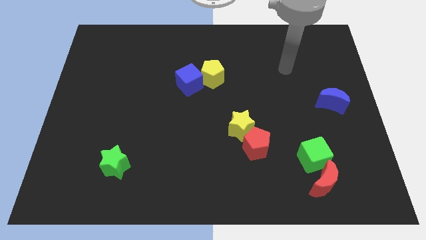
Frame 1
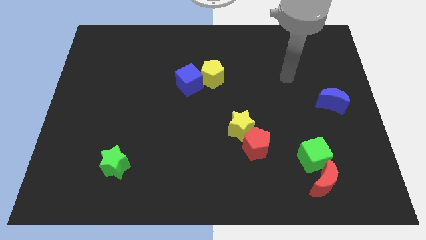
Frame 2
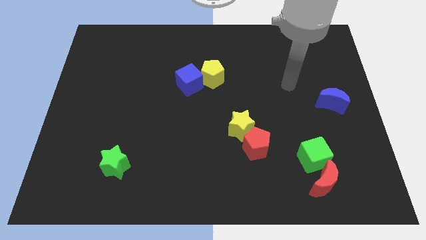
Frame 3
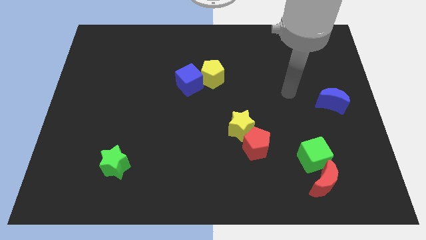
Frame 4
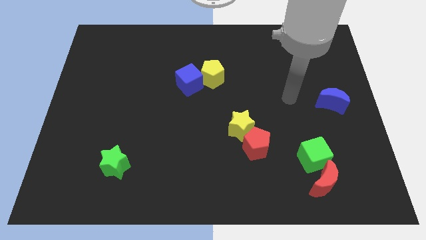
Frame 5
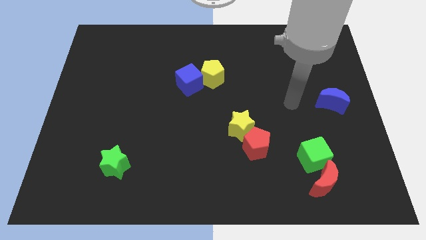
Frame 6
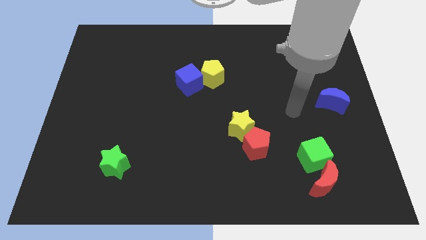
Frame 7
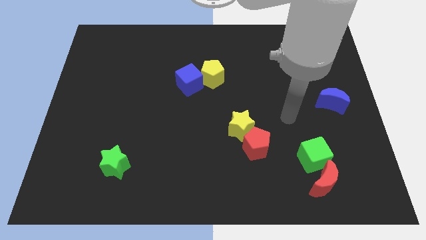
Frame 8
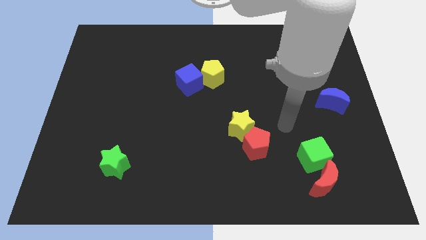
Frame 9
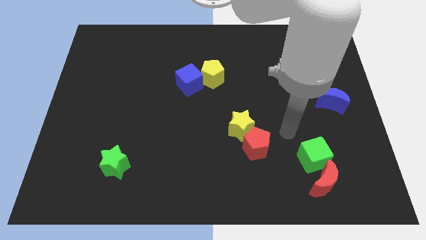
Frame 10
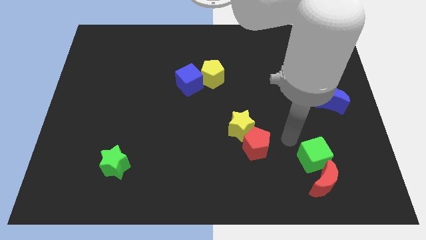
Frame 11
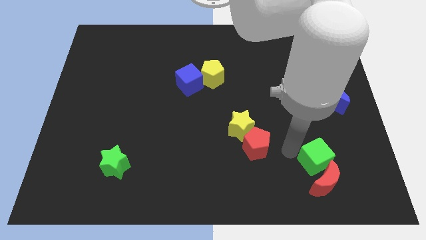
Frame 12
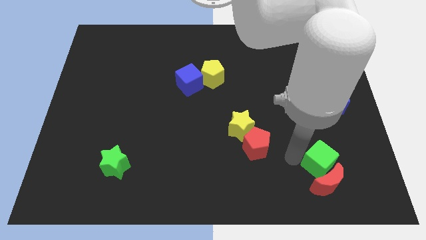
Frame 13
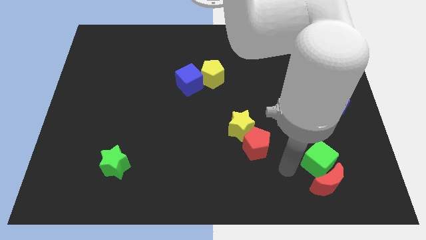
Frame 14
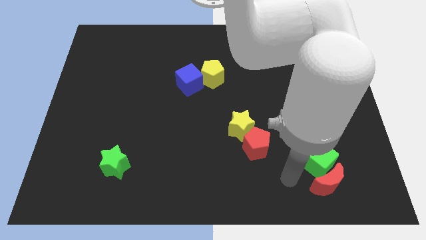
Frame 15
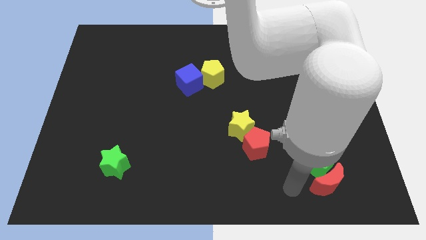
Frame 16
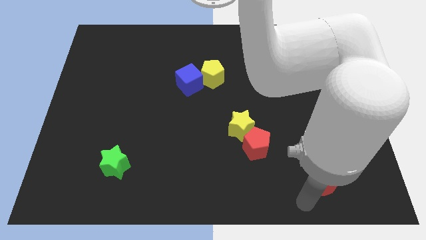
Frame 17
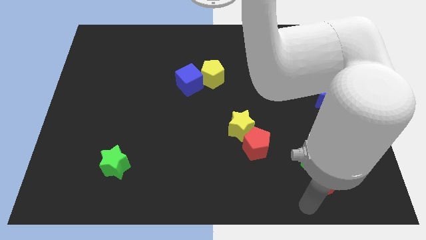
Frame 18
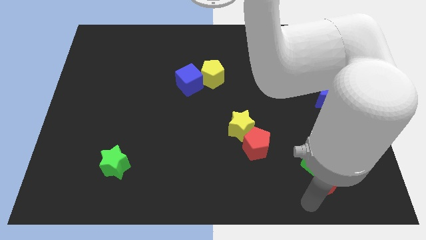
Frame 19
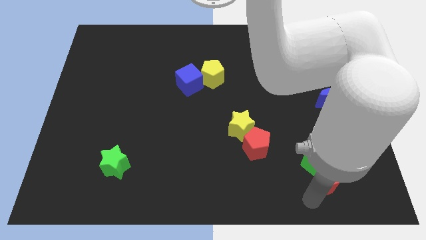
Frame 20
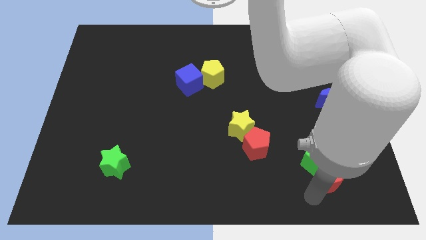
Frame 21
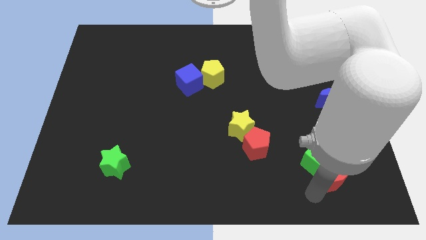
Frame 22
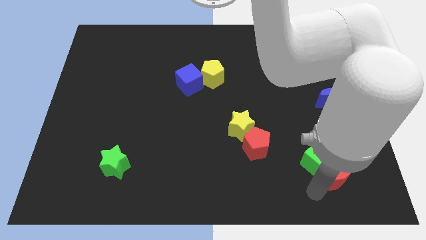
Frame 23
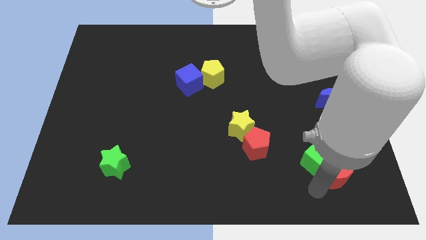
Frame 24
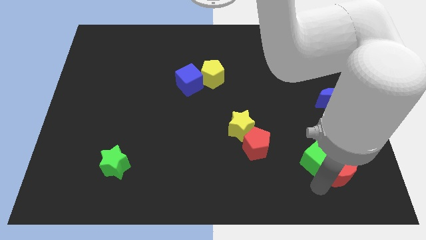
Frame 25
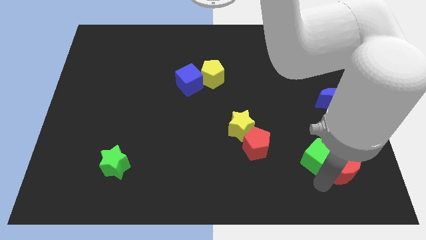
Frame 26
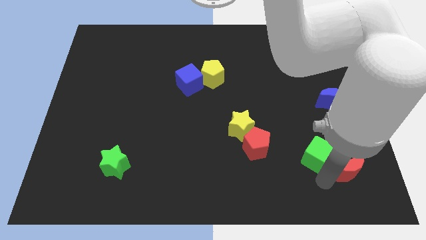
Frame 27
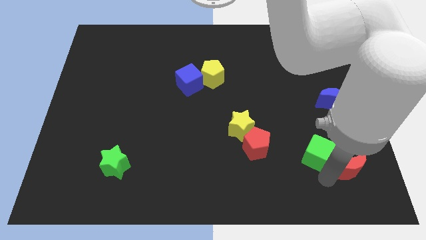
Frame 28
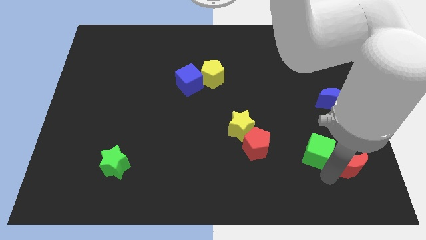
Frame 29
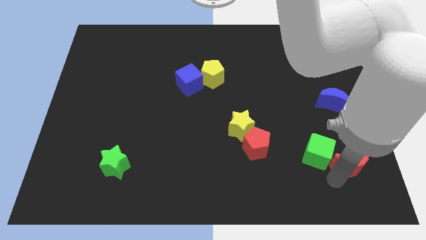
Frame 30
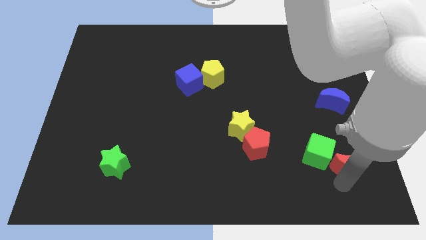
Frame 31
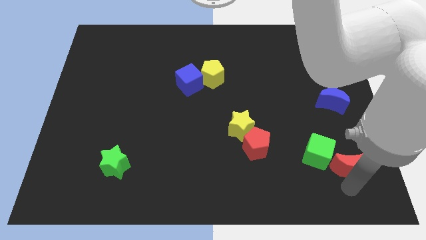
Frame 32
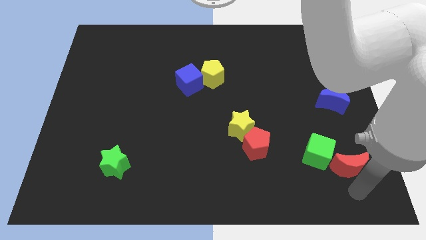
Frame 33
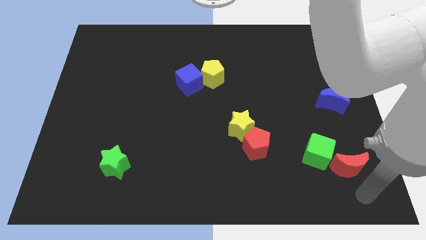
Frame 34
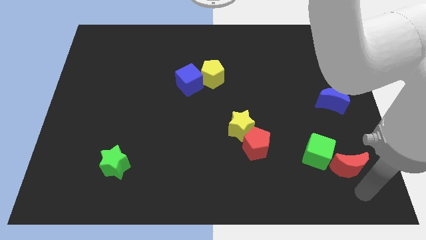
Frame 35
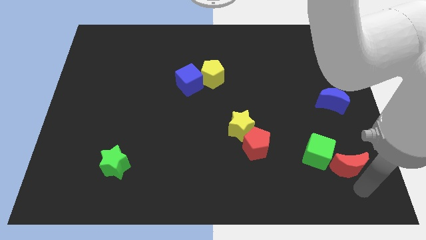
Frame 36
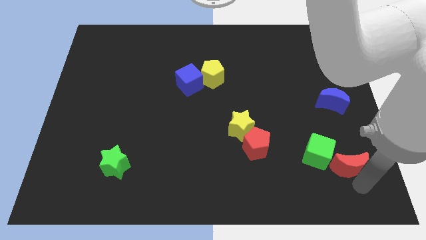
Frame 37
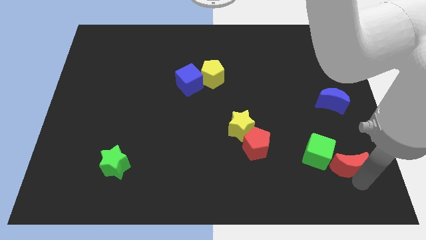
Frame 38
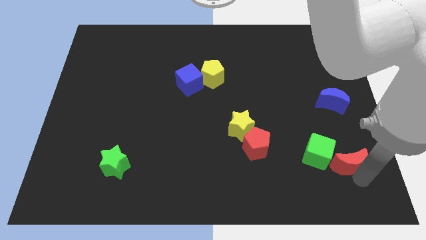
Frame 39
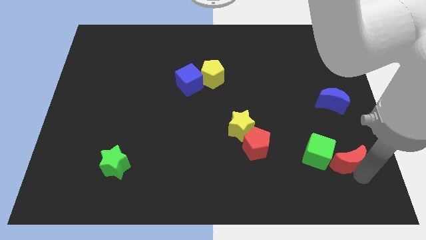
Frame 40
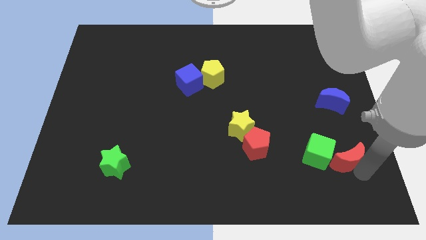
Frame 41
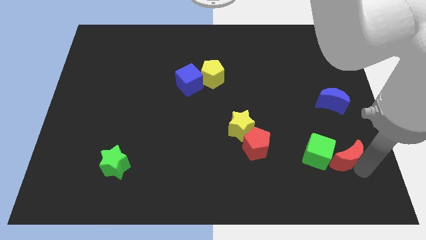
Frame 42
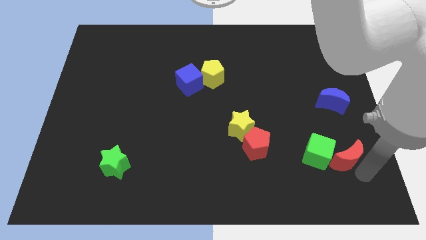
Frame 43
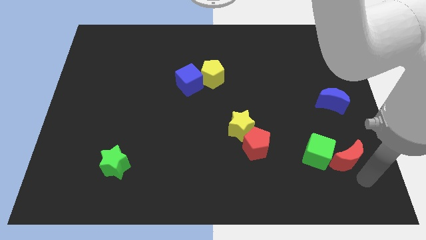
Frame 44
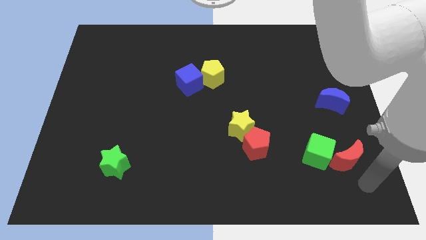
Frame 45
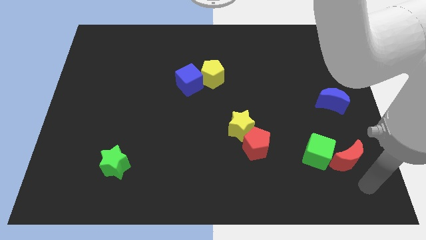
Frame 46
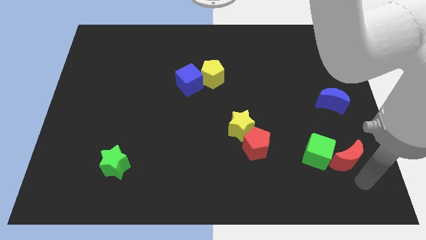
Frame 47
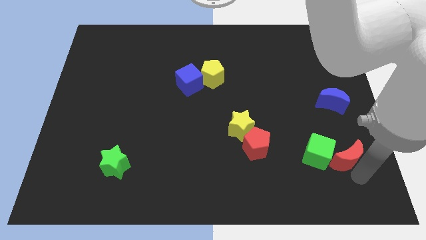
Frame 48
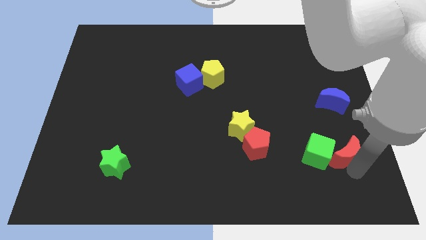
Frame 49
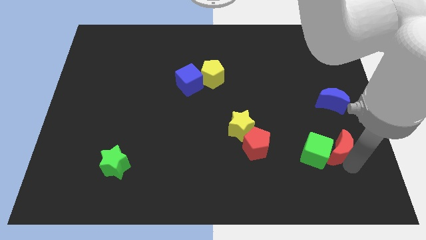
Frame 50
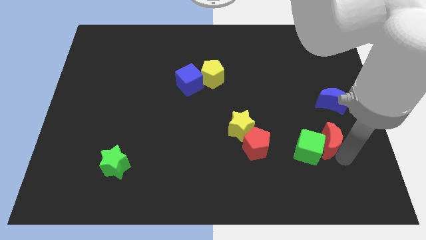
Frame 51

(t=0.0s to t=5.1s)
slightly move the red moon upwards

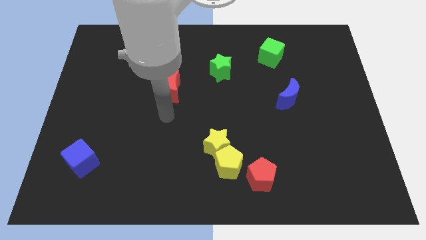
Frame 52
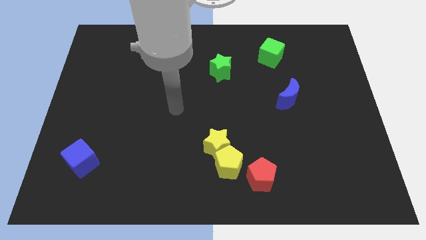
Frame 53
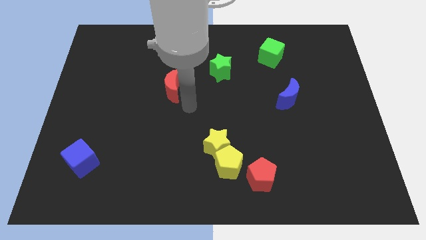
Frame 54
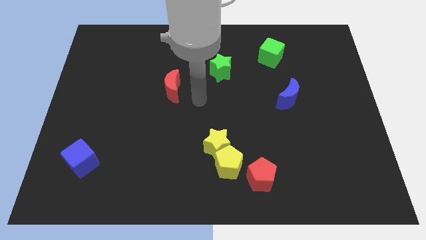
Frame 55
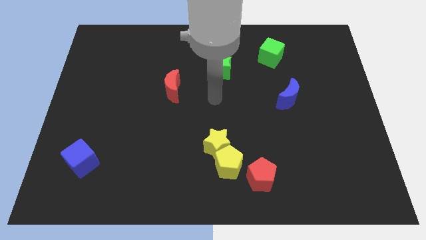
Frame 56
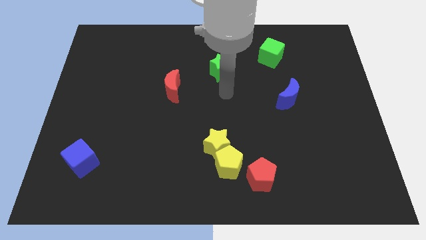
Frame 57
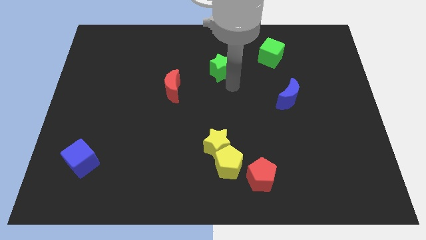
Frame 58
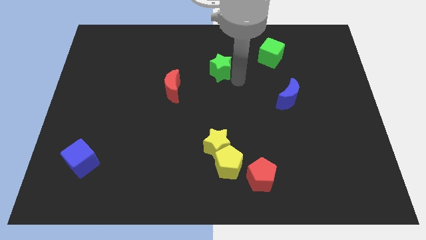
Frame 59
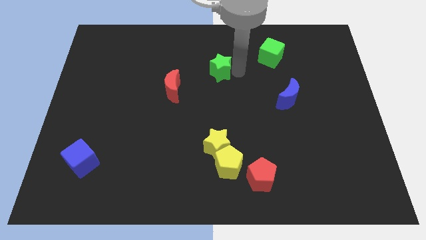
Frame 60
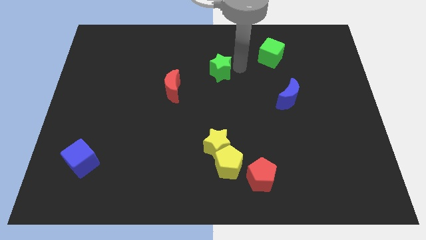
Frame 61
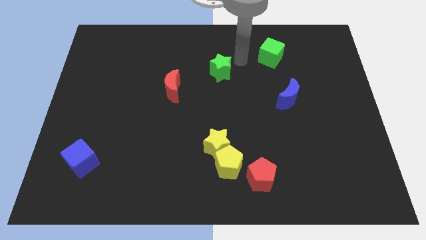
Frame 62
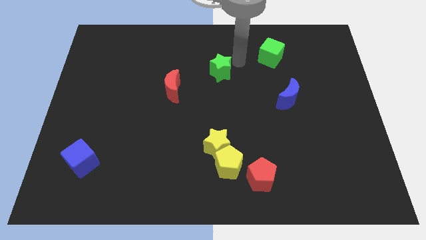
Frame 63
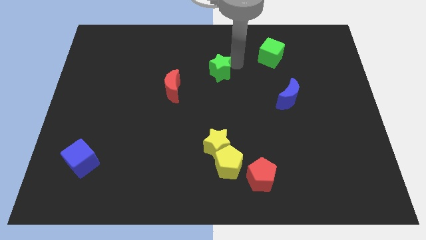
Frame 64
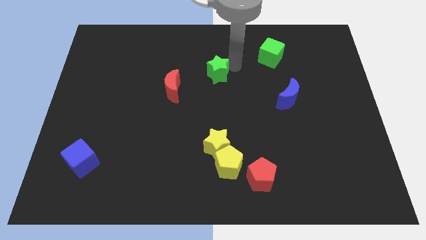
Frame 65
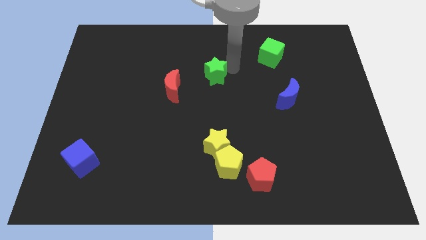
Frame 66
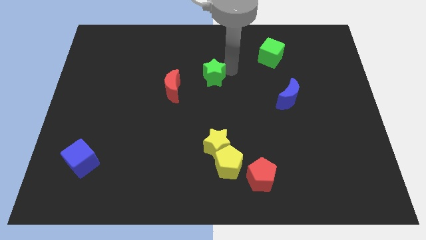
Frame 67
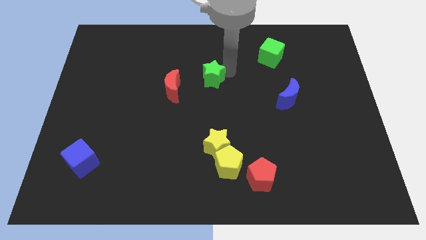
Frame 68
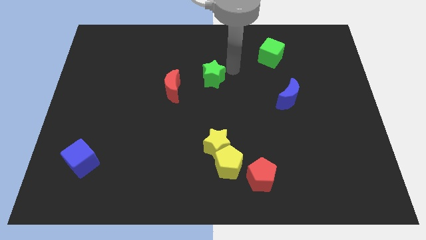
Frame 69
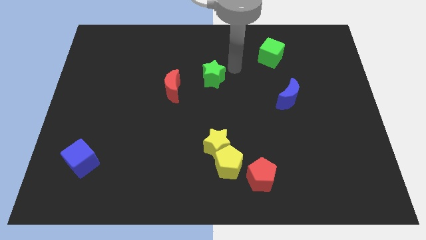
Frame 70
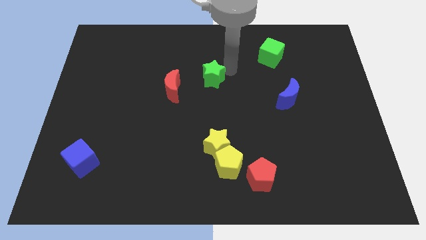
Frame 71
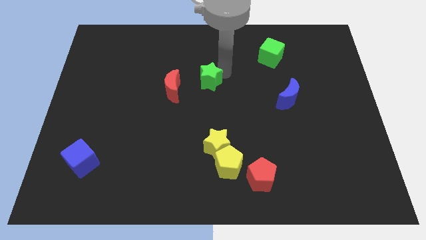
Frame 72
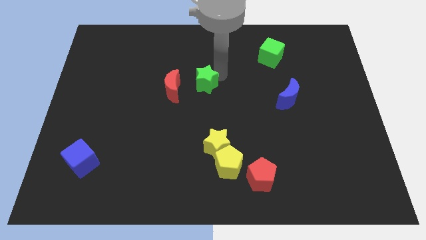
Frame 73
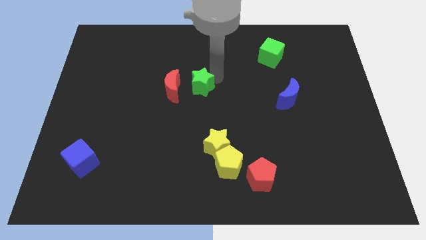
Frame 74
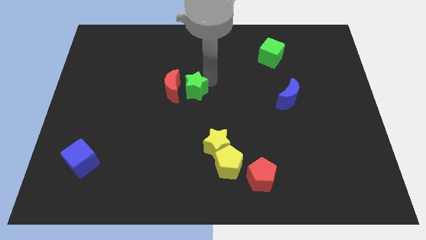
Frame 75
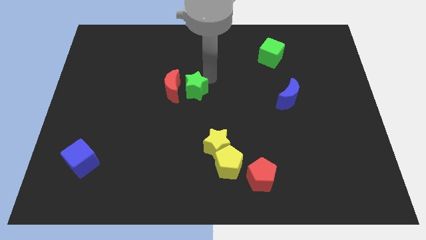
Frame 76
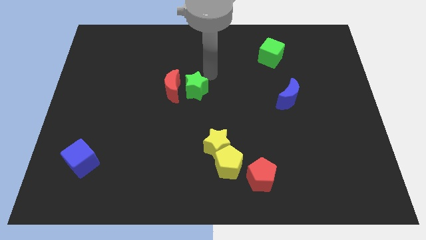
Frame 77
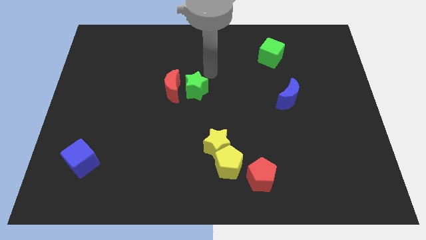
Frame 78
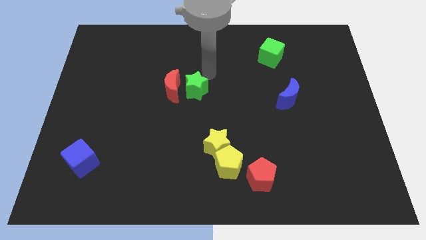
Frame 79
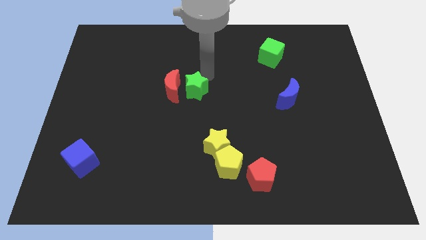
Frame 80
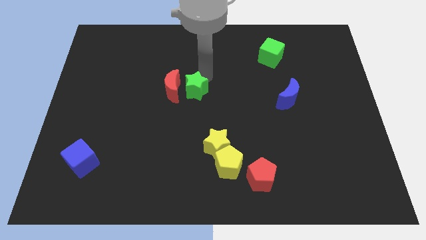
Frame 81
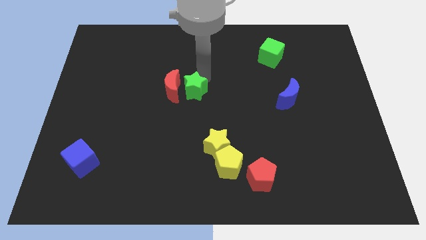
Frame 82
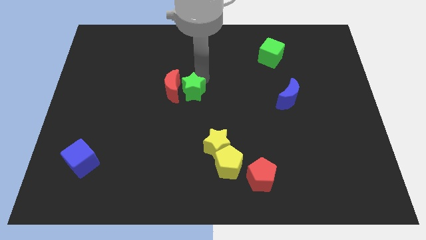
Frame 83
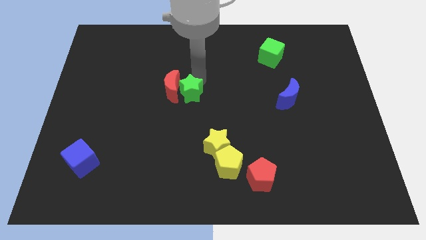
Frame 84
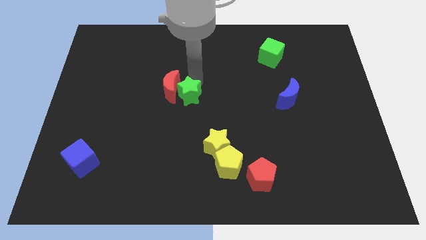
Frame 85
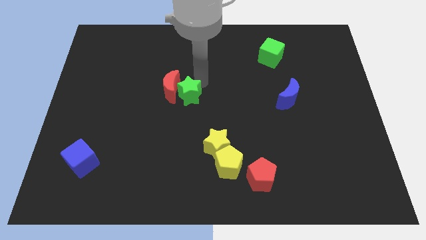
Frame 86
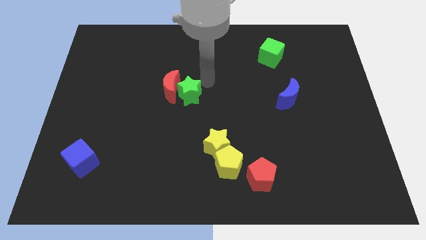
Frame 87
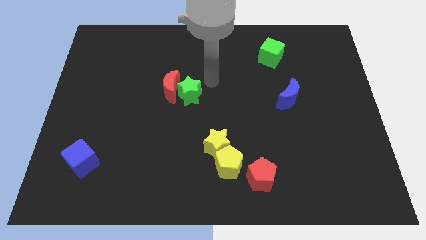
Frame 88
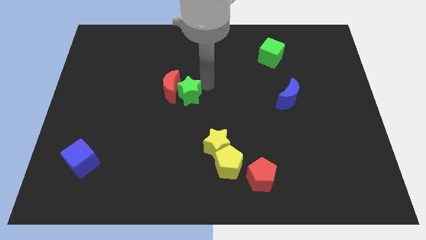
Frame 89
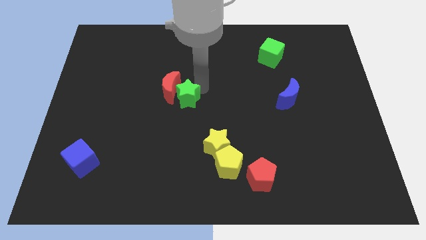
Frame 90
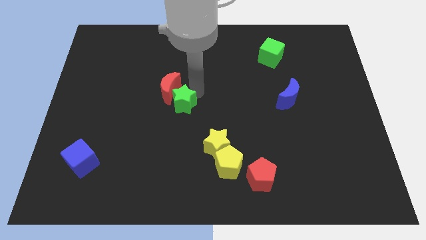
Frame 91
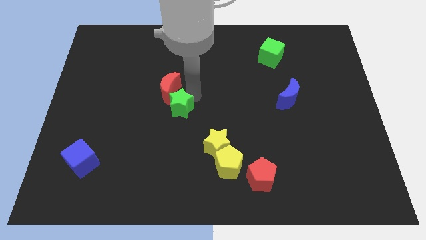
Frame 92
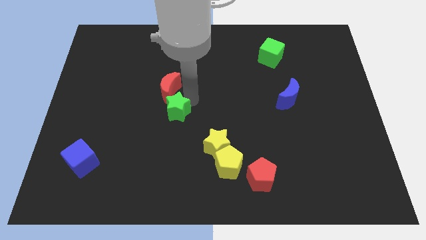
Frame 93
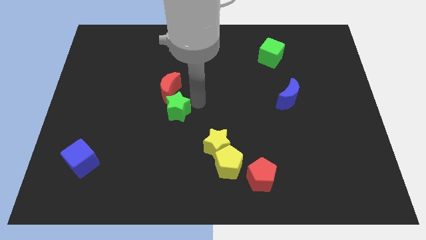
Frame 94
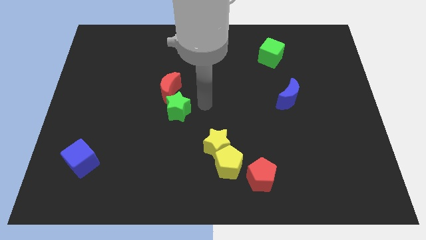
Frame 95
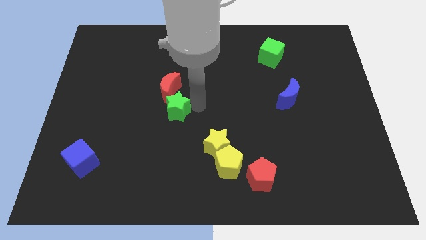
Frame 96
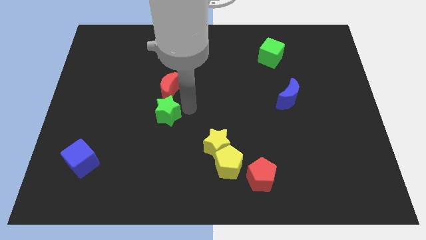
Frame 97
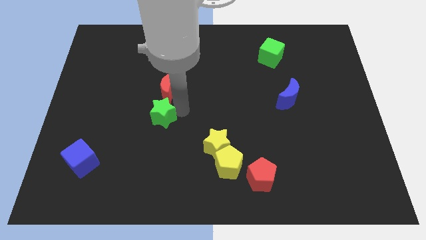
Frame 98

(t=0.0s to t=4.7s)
move the green star downwards and to the left
